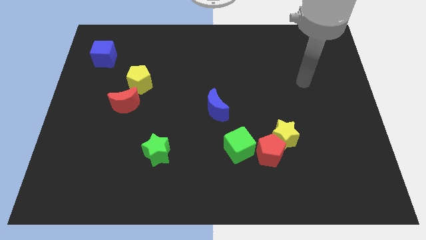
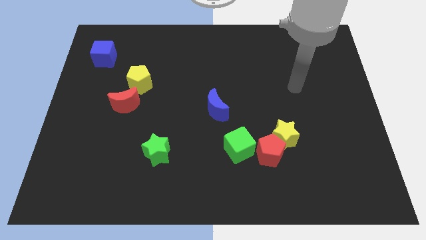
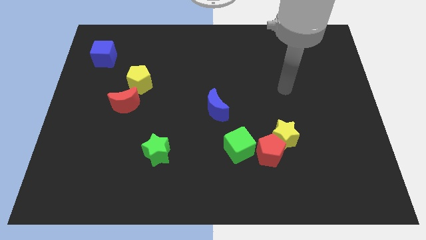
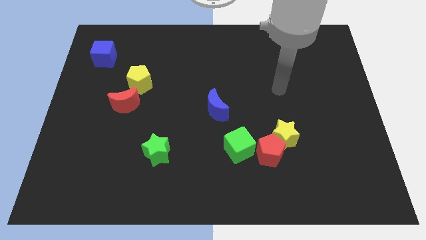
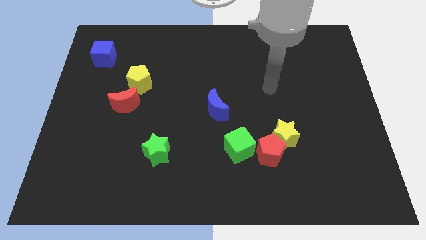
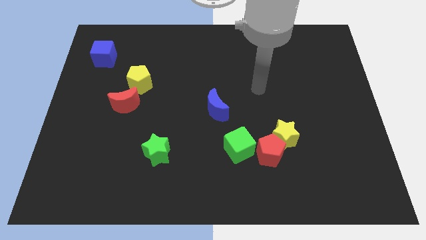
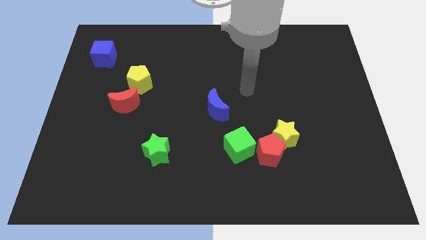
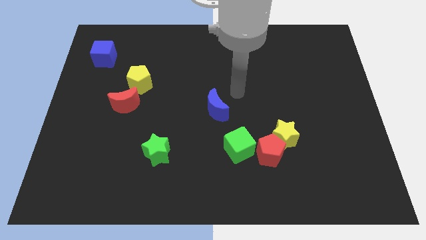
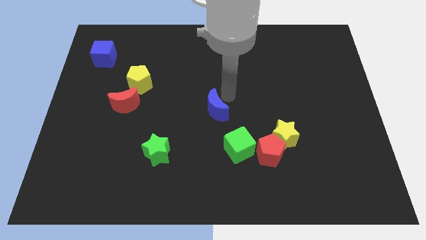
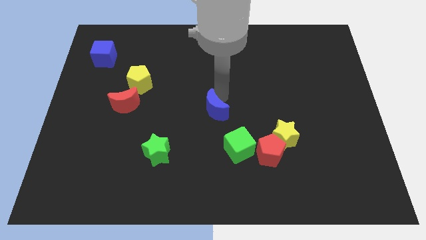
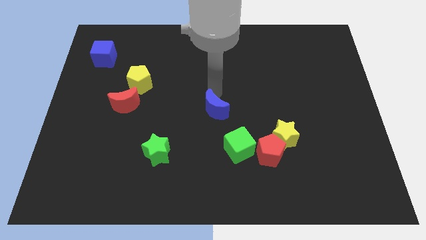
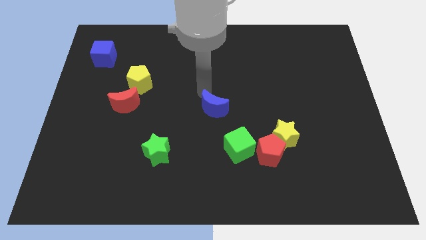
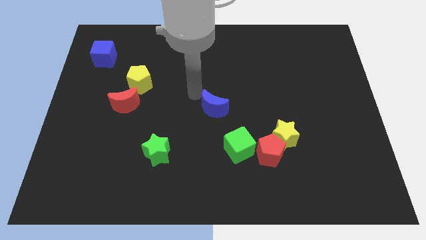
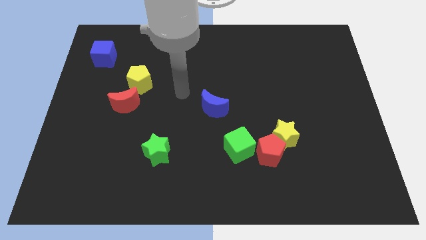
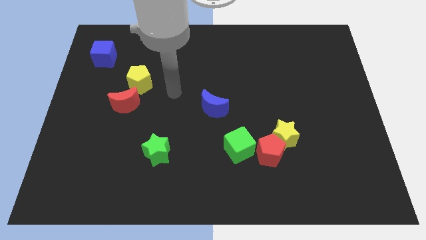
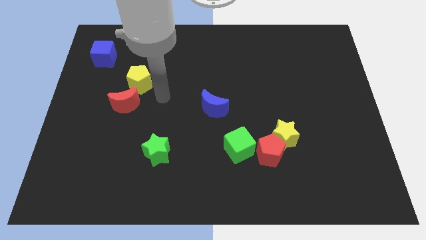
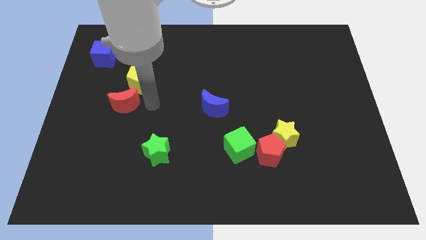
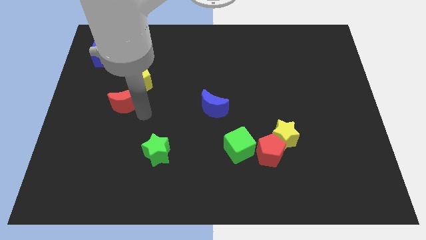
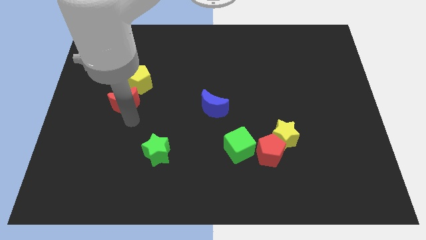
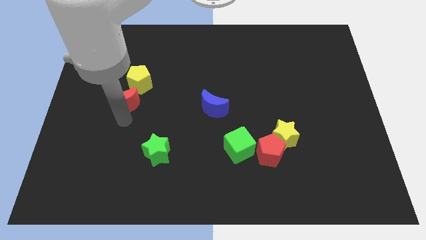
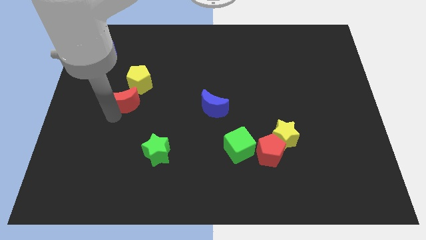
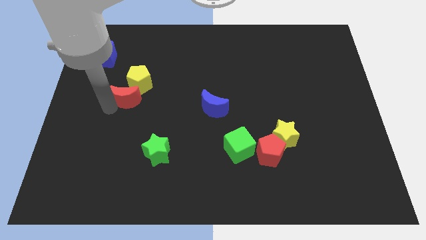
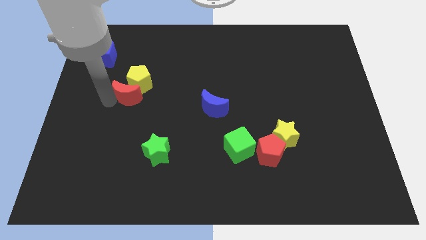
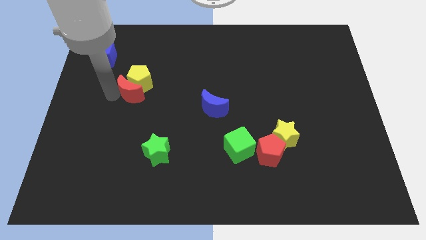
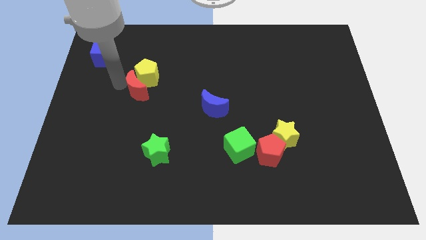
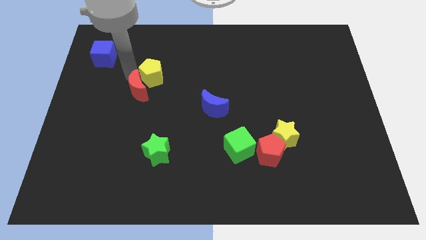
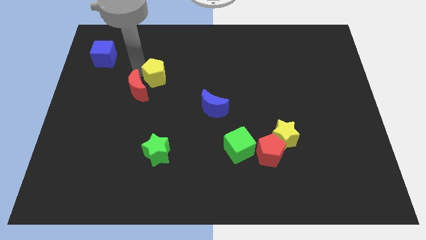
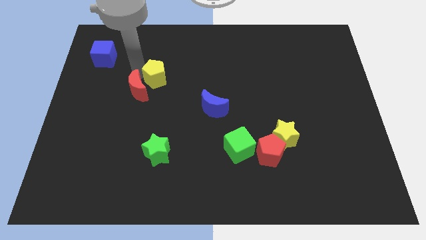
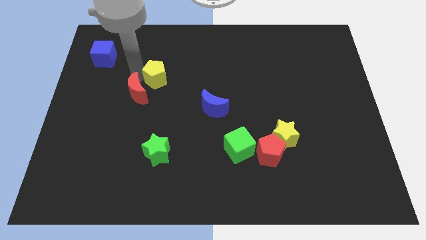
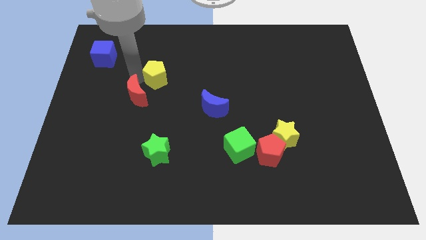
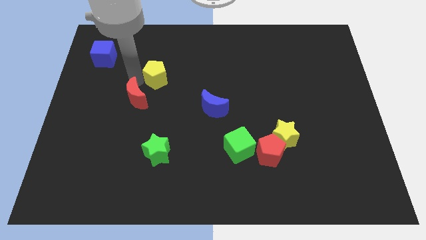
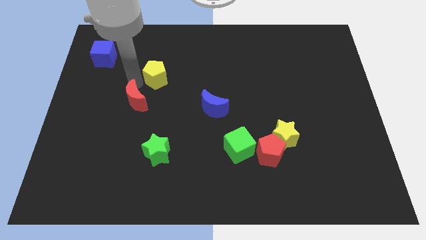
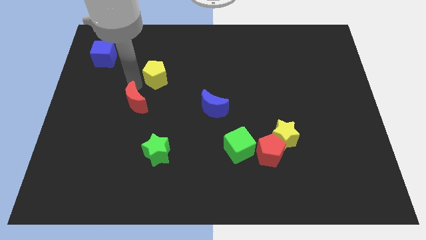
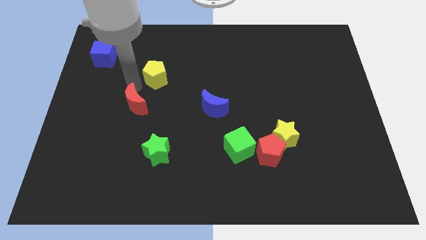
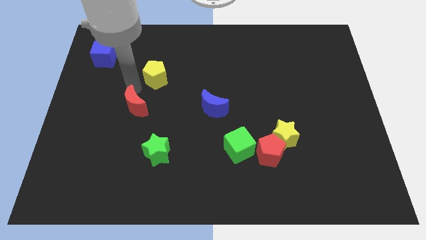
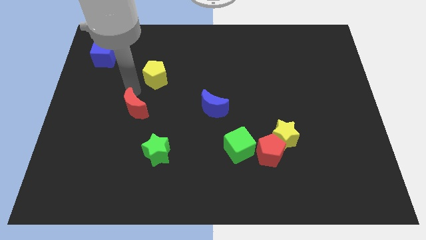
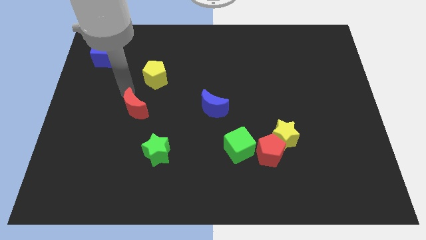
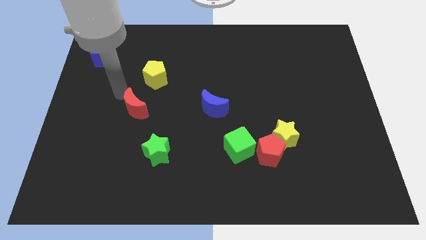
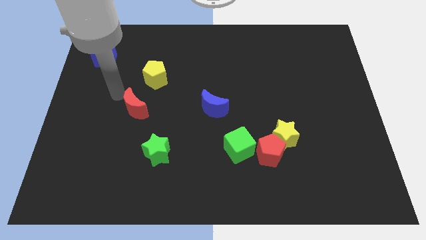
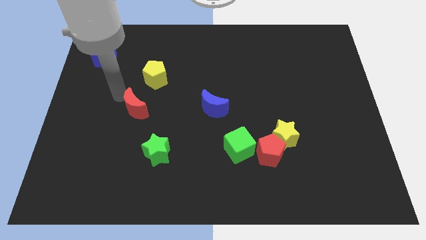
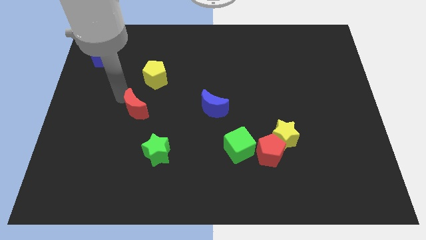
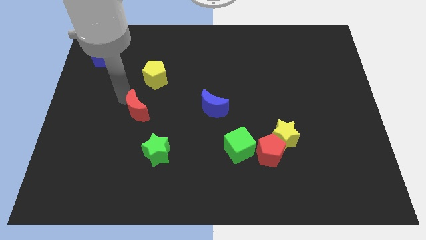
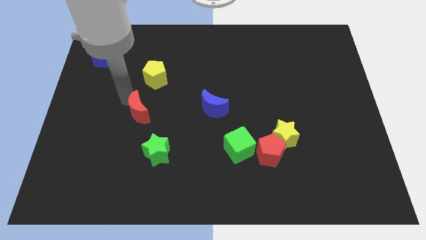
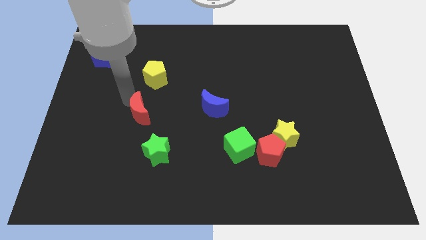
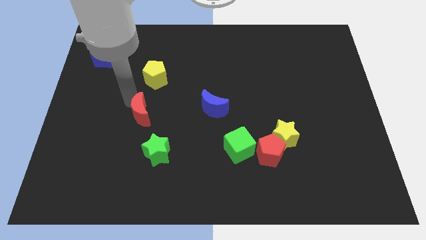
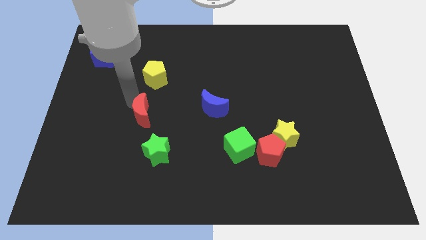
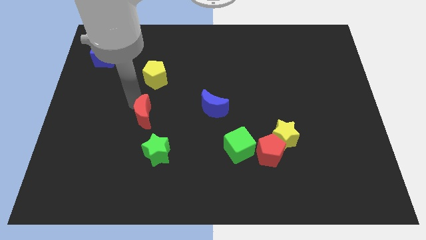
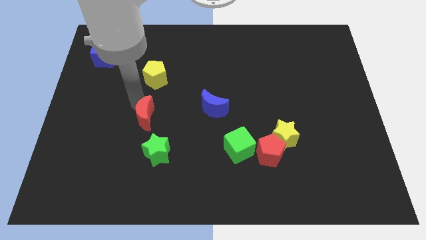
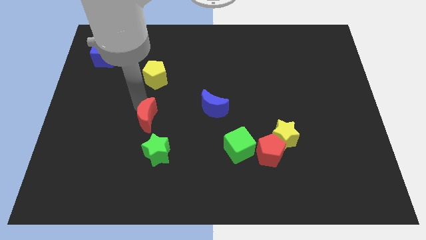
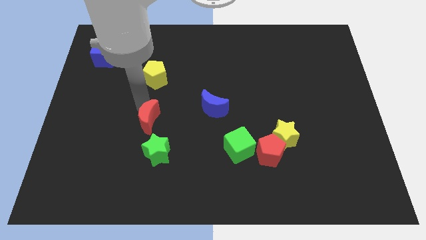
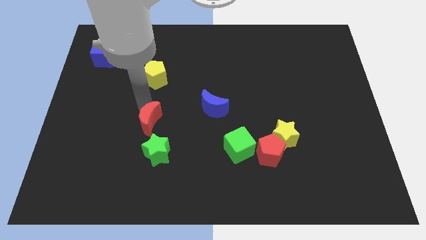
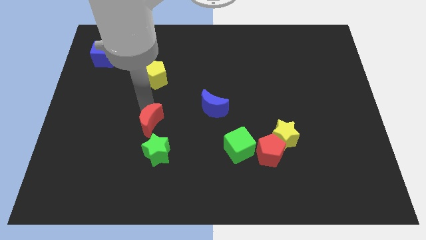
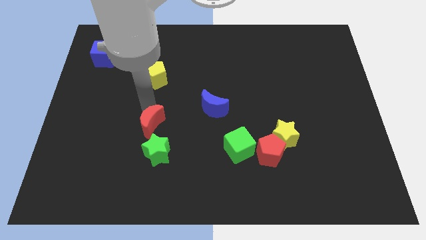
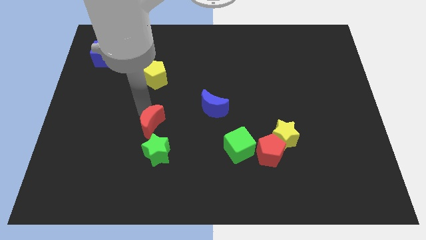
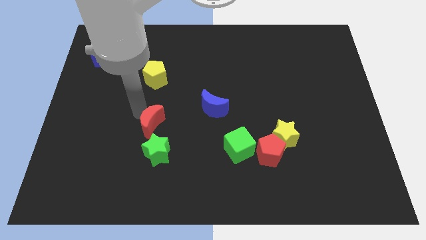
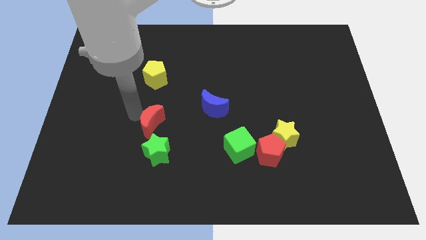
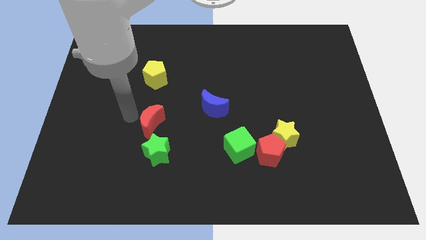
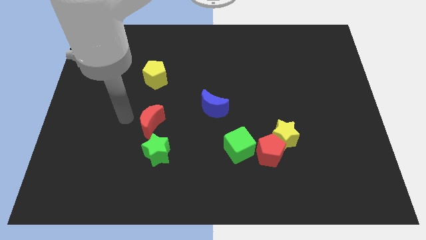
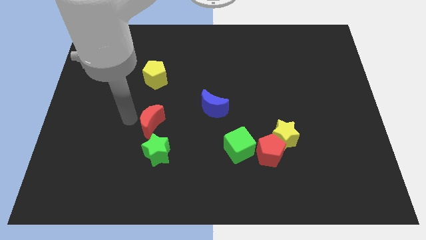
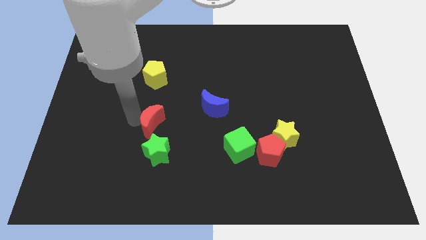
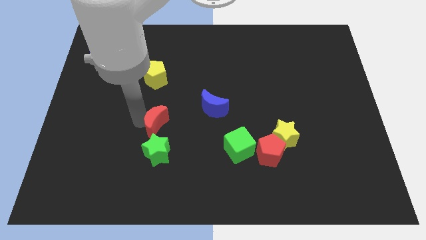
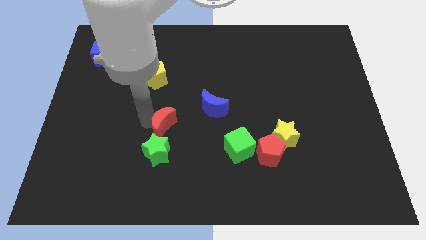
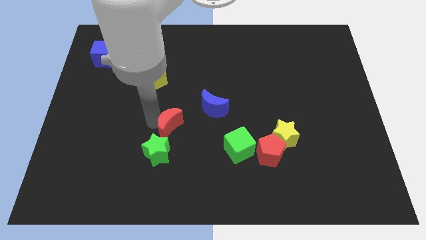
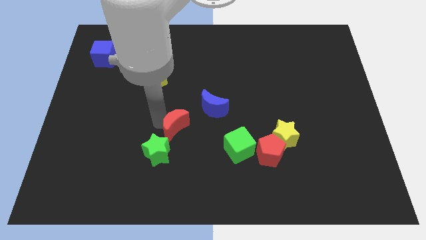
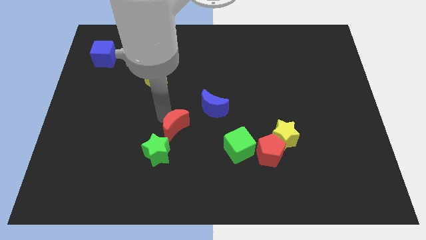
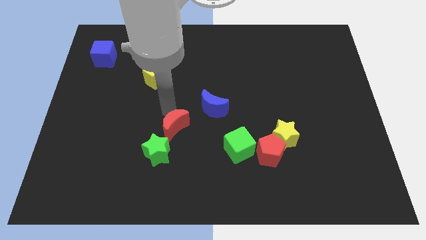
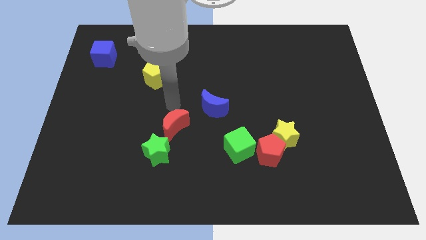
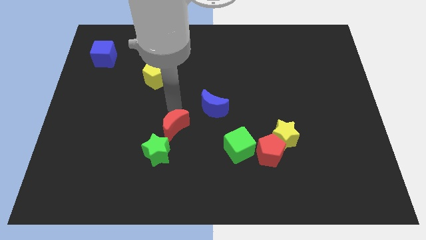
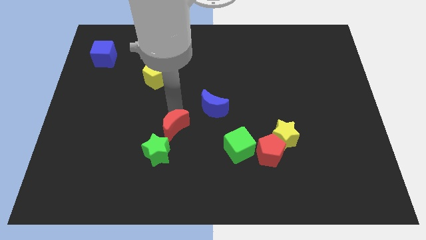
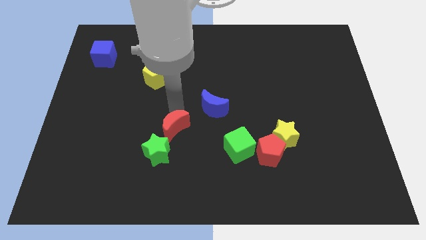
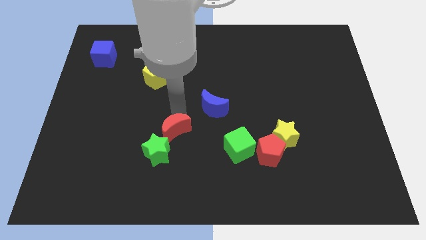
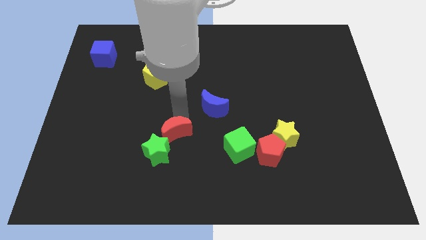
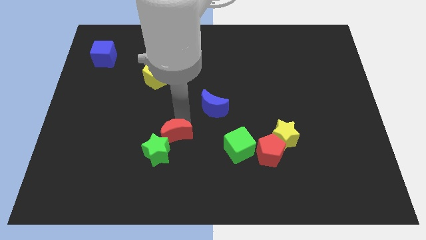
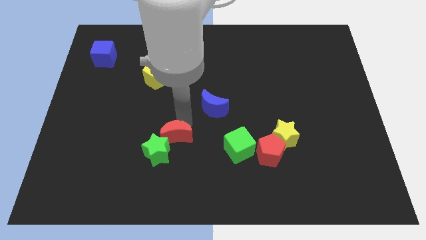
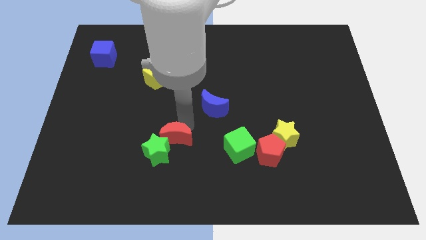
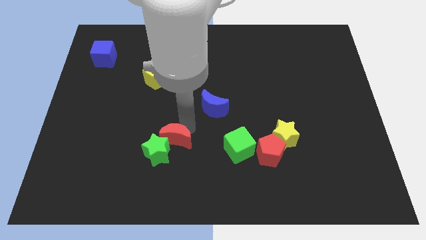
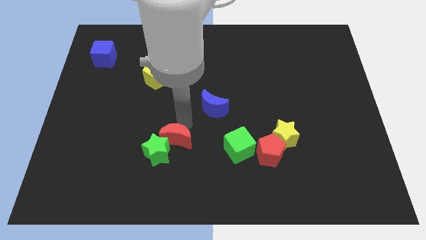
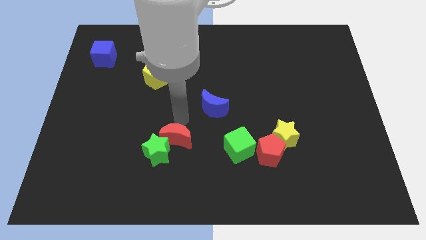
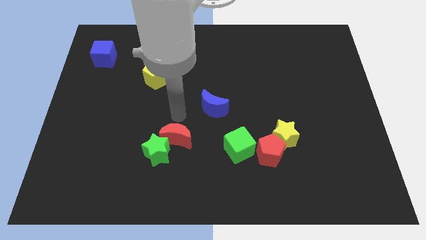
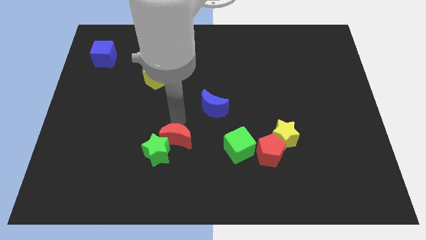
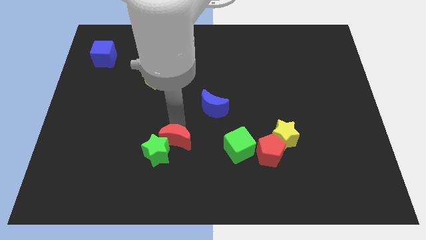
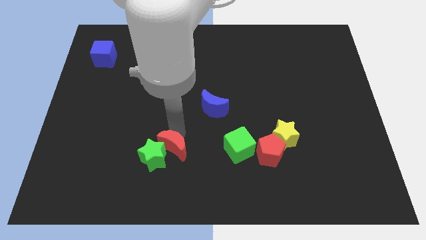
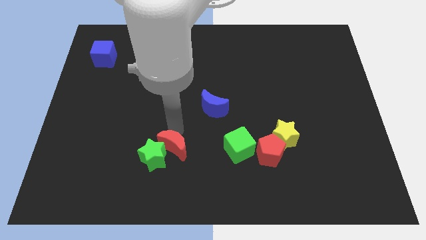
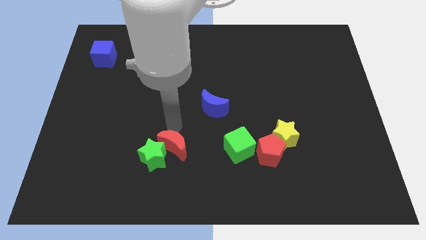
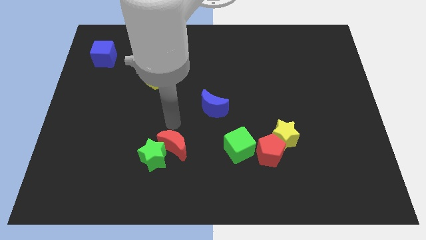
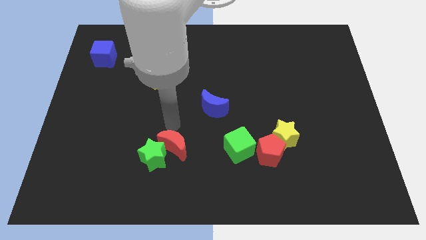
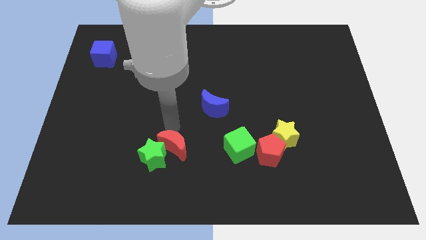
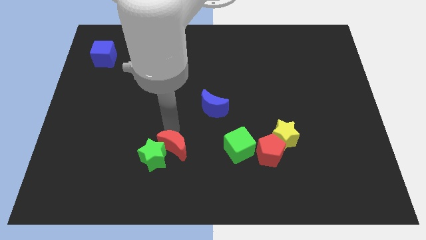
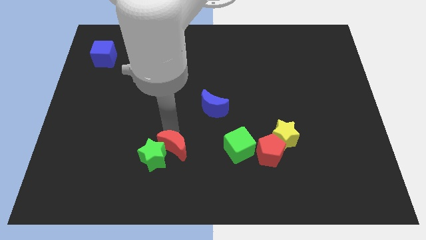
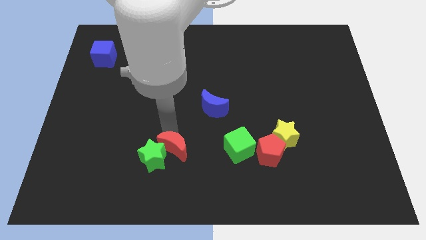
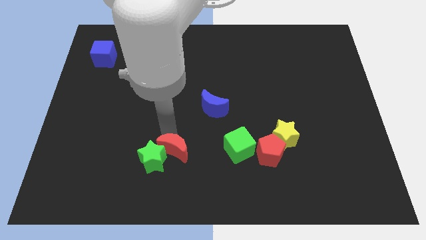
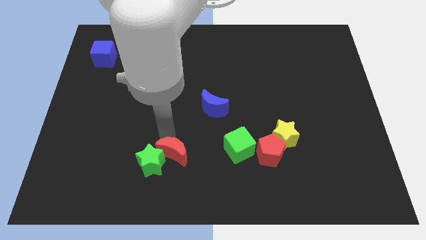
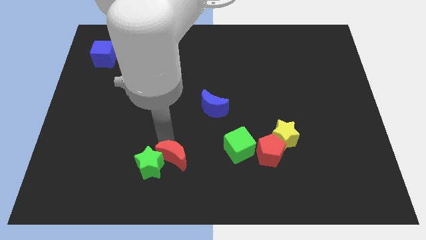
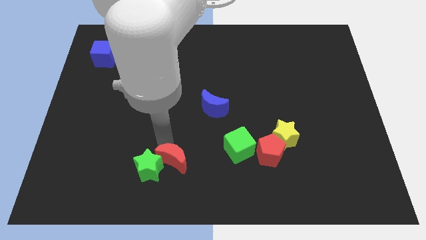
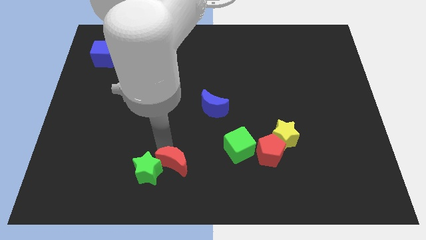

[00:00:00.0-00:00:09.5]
slide the red moon to the bottom
